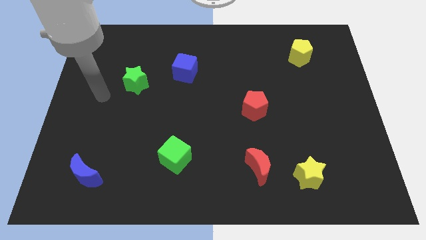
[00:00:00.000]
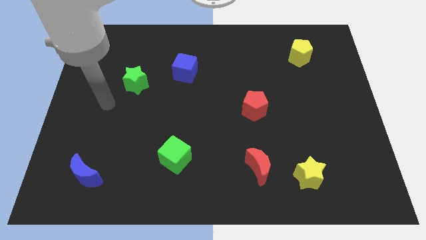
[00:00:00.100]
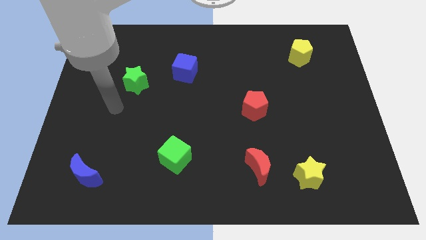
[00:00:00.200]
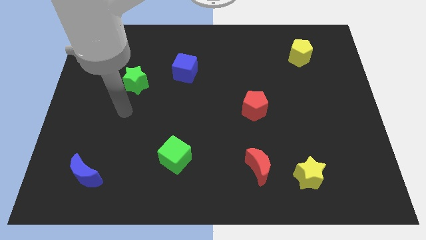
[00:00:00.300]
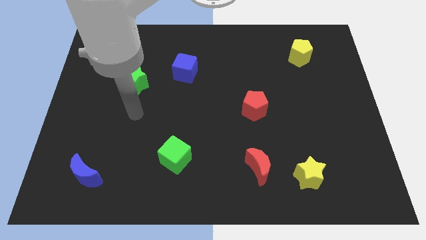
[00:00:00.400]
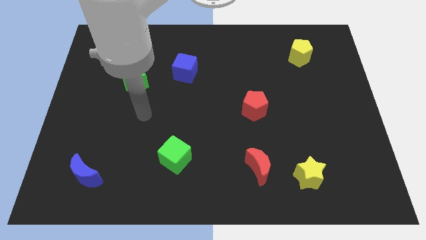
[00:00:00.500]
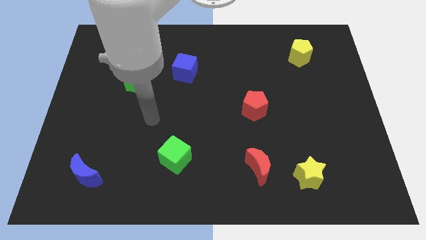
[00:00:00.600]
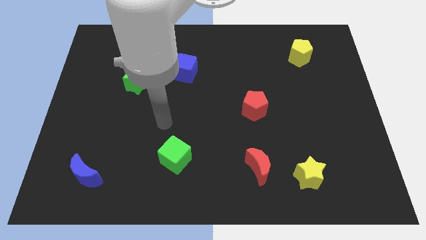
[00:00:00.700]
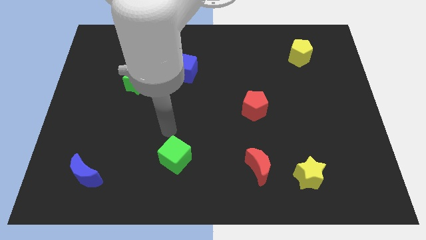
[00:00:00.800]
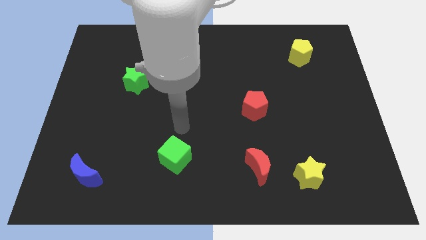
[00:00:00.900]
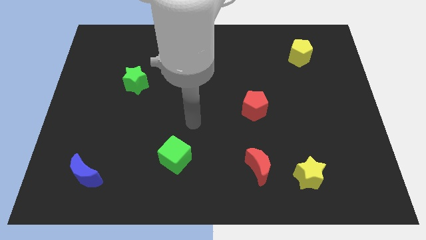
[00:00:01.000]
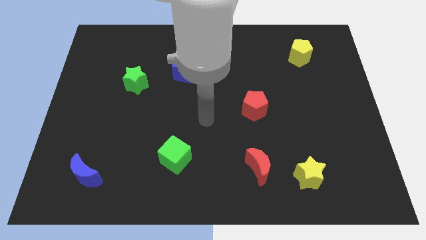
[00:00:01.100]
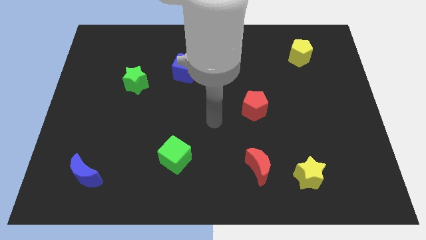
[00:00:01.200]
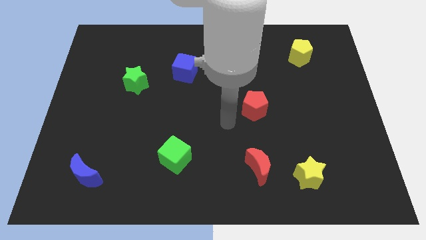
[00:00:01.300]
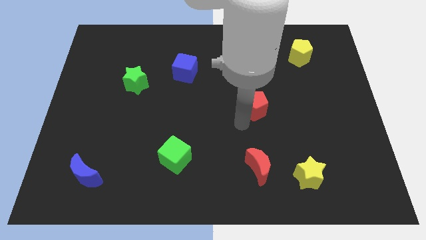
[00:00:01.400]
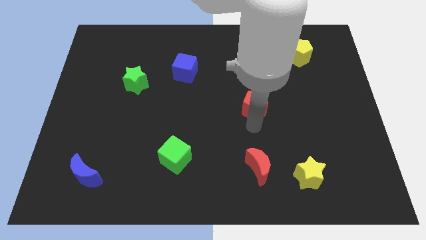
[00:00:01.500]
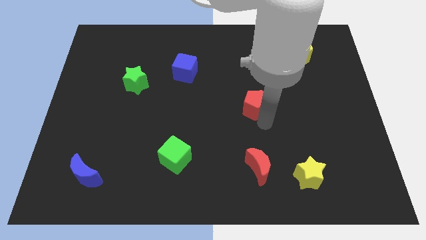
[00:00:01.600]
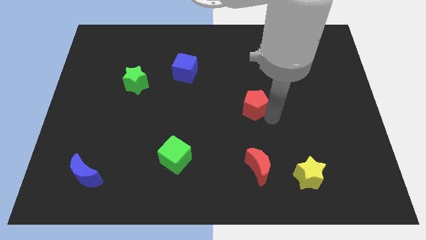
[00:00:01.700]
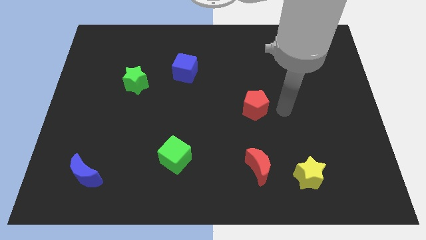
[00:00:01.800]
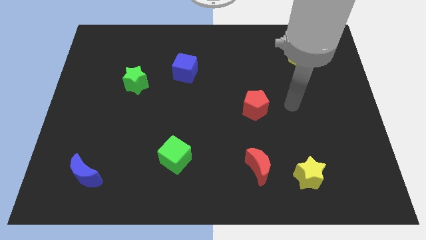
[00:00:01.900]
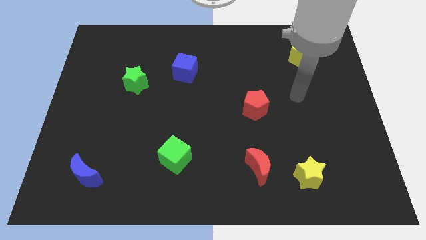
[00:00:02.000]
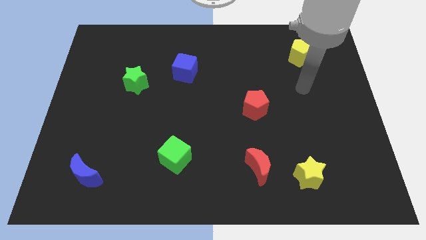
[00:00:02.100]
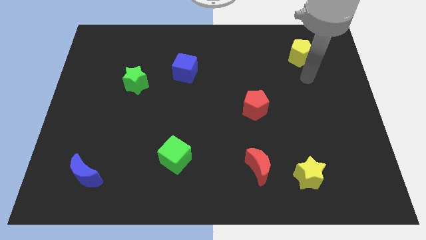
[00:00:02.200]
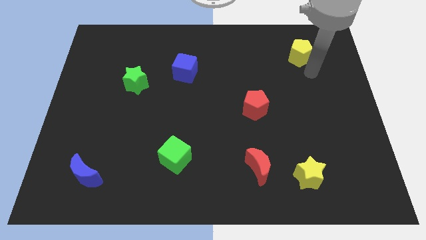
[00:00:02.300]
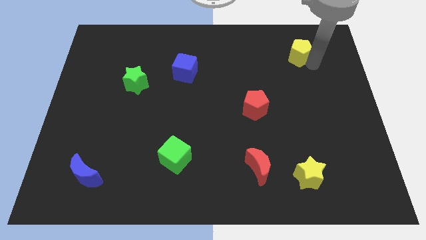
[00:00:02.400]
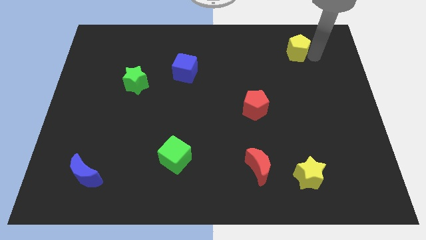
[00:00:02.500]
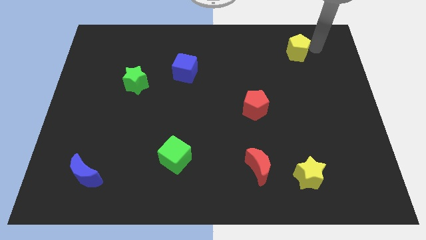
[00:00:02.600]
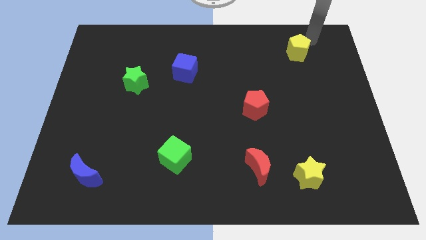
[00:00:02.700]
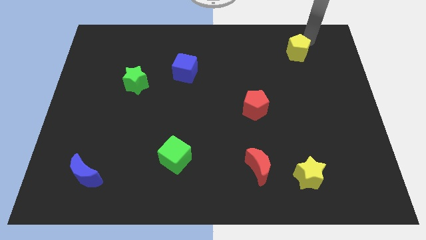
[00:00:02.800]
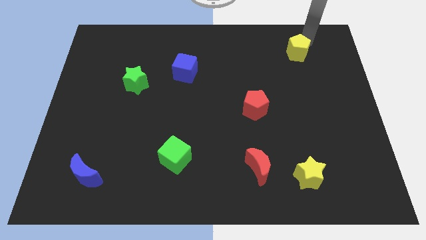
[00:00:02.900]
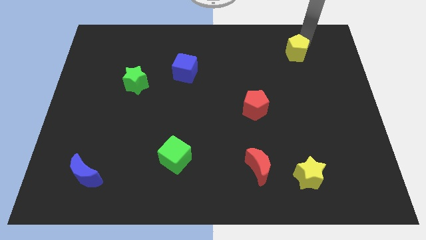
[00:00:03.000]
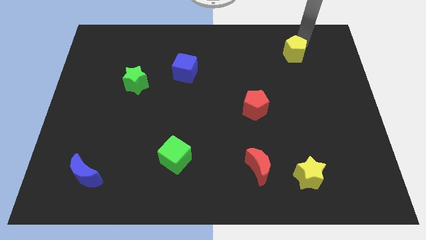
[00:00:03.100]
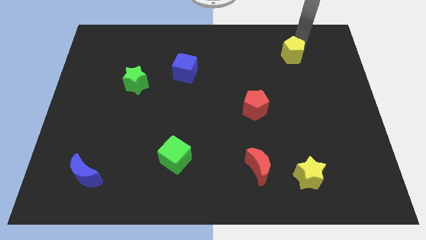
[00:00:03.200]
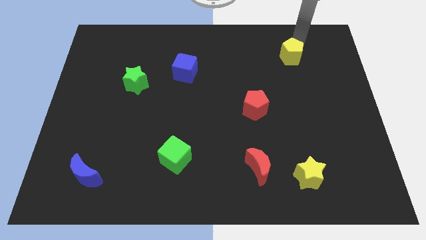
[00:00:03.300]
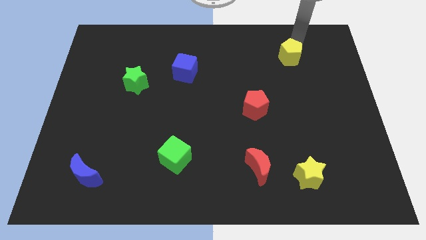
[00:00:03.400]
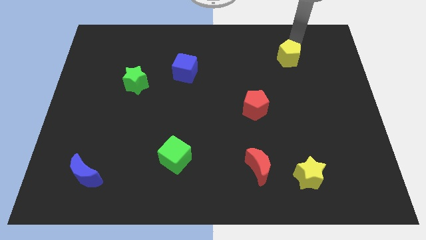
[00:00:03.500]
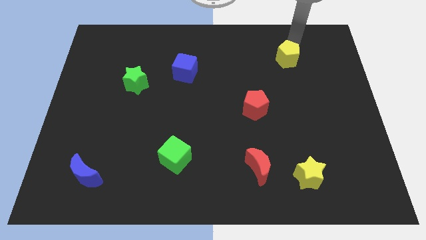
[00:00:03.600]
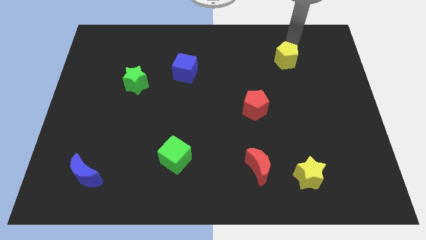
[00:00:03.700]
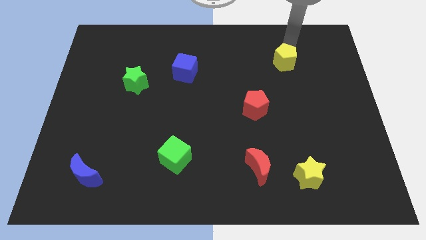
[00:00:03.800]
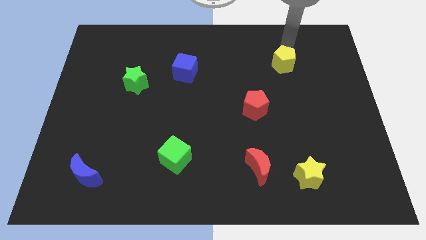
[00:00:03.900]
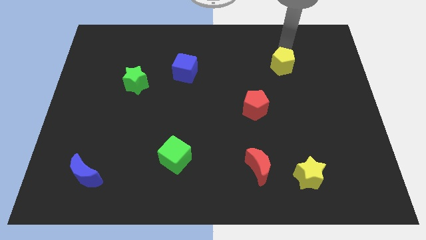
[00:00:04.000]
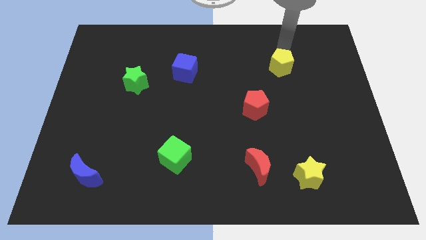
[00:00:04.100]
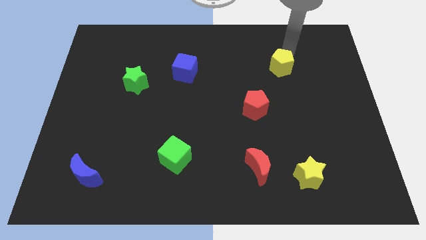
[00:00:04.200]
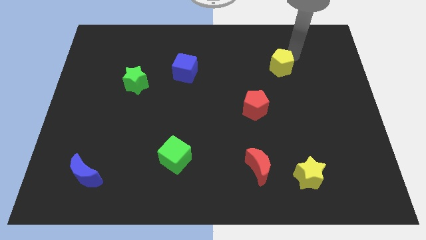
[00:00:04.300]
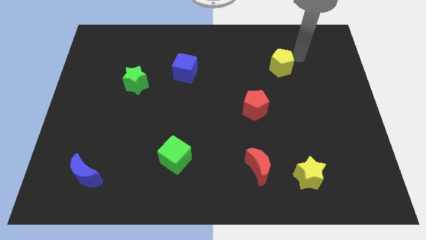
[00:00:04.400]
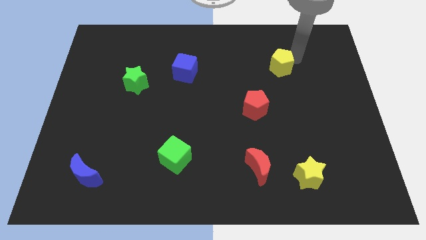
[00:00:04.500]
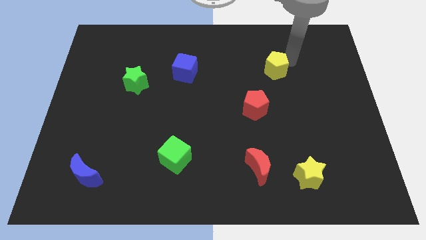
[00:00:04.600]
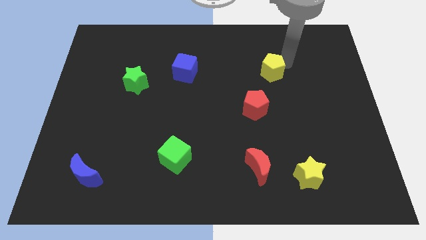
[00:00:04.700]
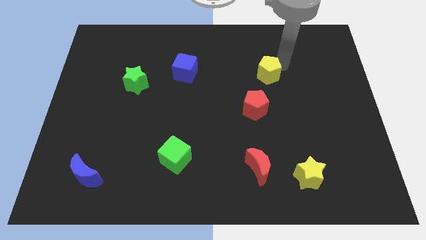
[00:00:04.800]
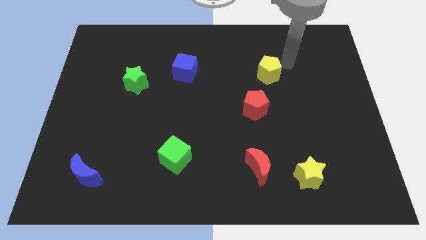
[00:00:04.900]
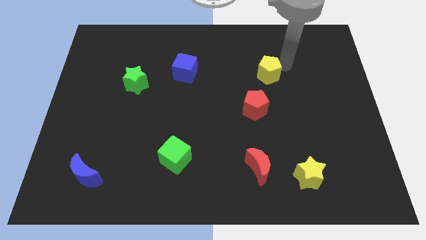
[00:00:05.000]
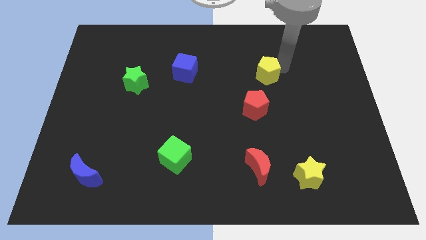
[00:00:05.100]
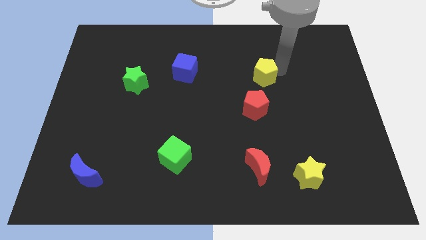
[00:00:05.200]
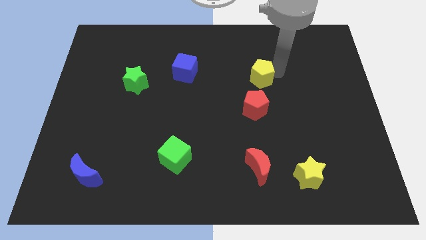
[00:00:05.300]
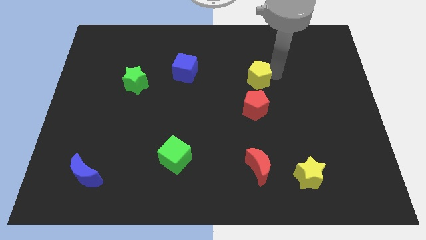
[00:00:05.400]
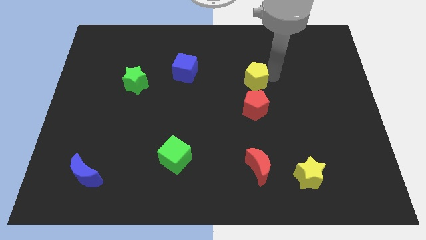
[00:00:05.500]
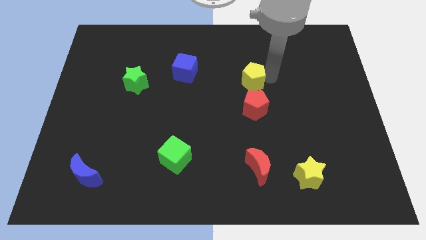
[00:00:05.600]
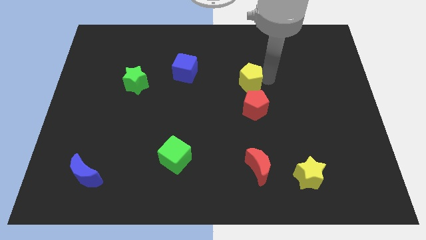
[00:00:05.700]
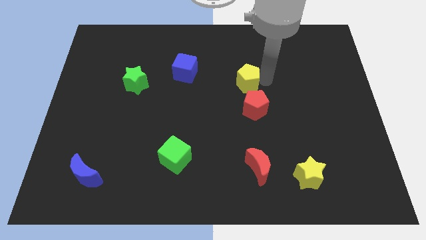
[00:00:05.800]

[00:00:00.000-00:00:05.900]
push the yellow pentagon to the top left side of the red pentagon

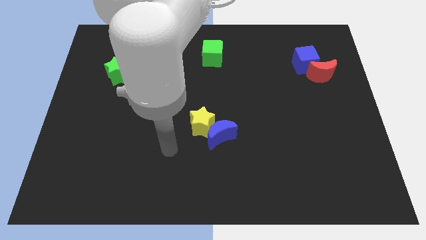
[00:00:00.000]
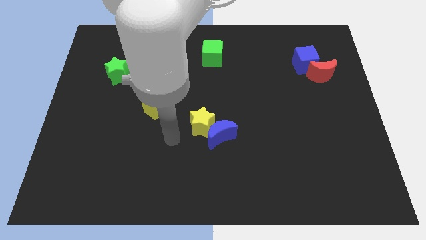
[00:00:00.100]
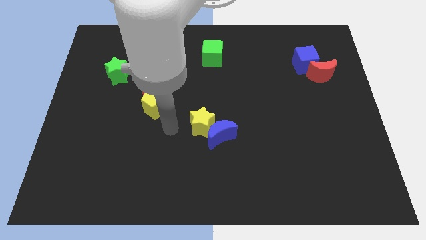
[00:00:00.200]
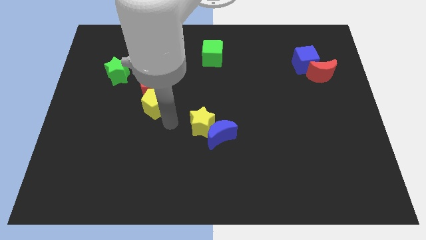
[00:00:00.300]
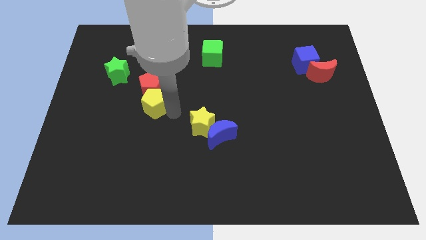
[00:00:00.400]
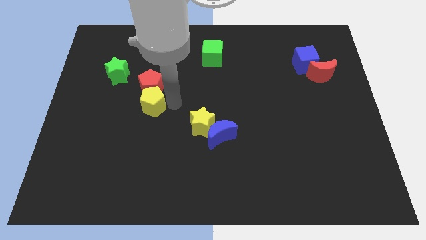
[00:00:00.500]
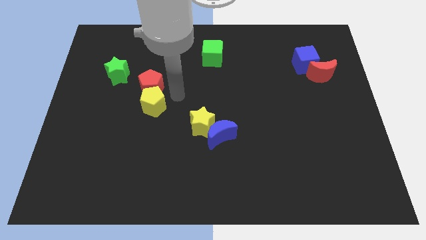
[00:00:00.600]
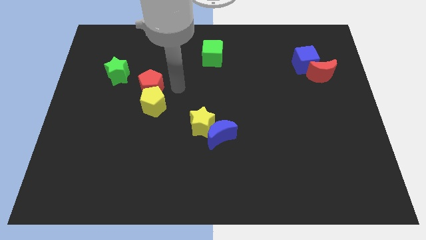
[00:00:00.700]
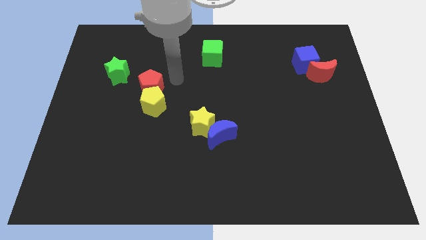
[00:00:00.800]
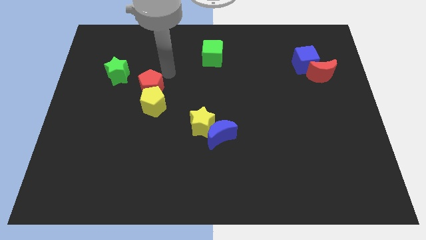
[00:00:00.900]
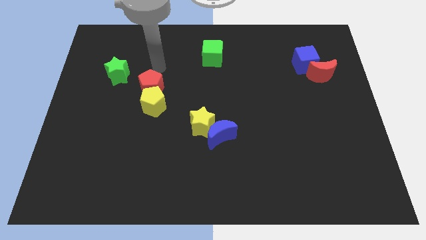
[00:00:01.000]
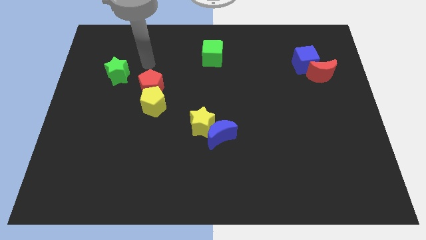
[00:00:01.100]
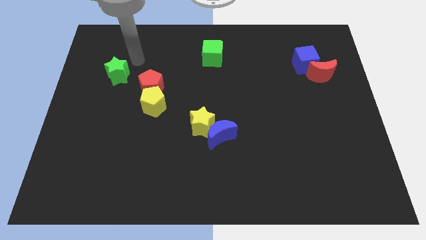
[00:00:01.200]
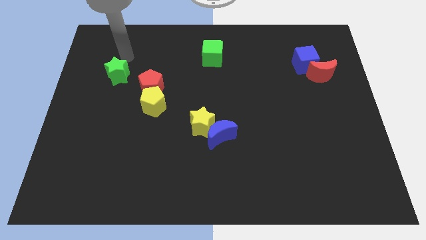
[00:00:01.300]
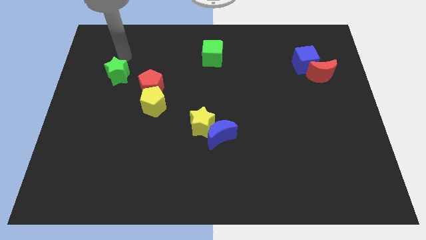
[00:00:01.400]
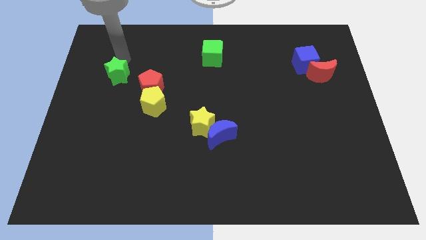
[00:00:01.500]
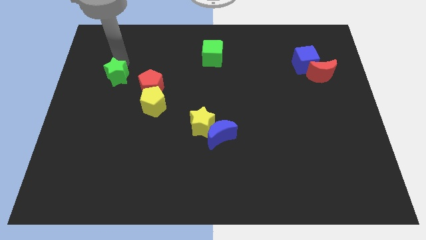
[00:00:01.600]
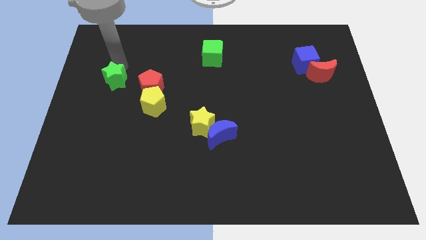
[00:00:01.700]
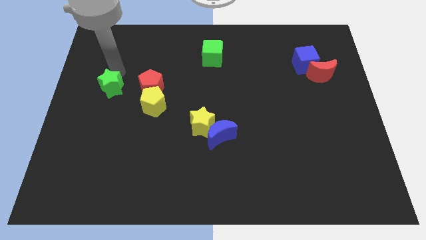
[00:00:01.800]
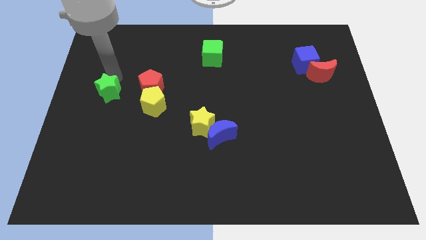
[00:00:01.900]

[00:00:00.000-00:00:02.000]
slide the green star to the left side of the yellow pentagon

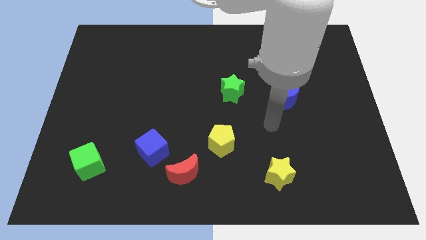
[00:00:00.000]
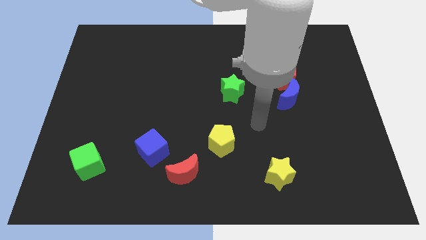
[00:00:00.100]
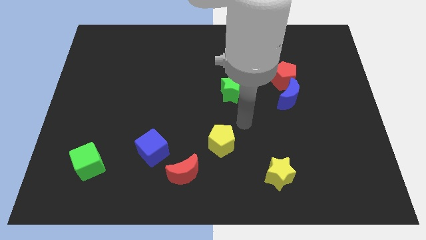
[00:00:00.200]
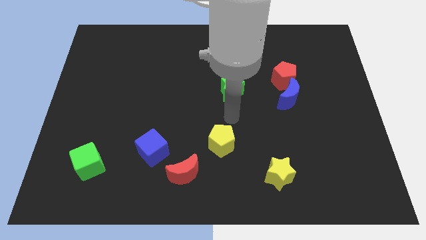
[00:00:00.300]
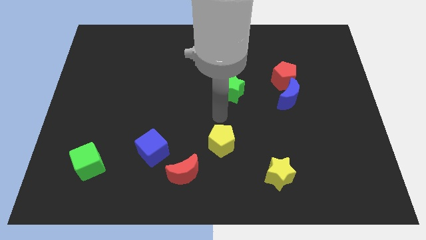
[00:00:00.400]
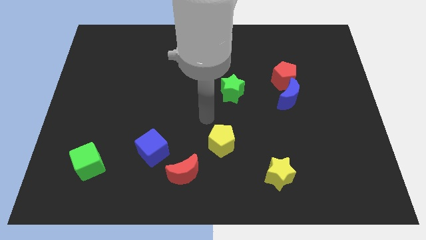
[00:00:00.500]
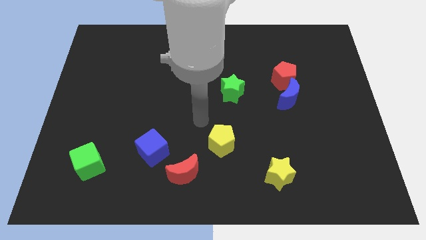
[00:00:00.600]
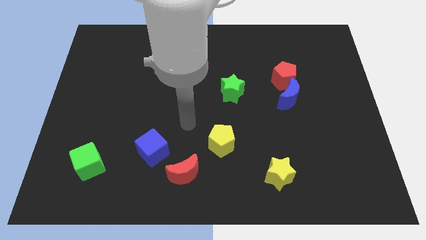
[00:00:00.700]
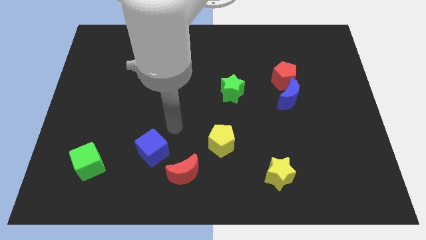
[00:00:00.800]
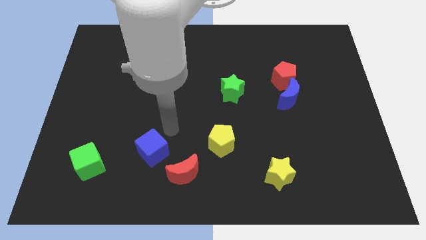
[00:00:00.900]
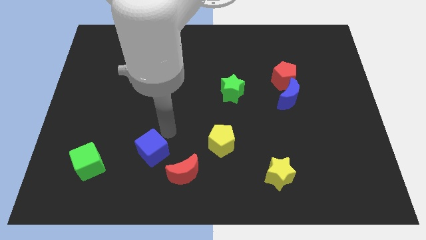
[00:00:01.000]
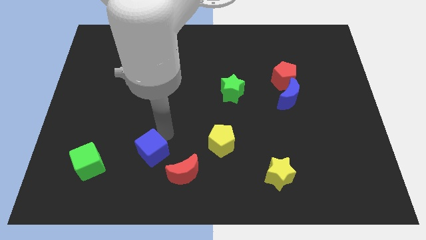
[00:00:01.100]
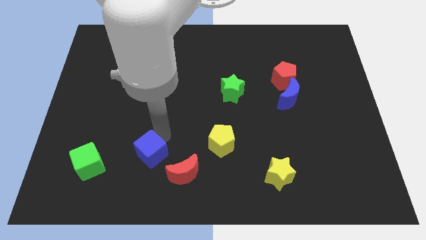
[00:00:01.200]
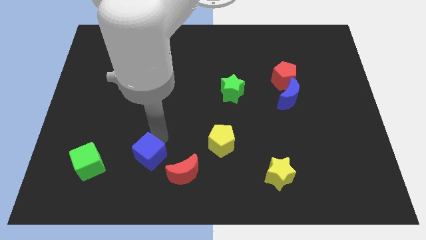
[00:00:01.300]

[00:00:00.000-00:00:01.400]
move the blue cube just left of the red moon
